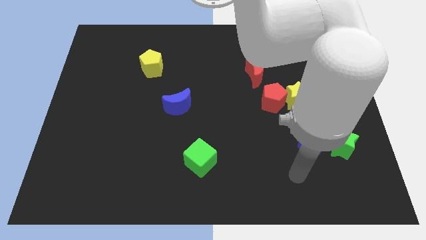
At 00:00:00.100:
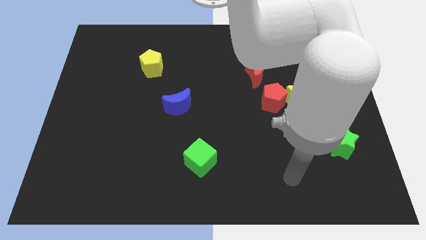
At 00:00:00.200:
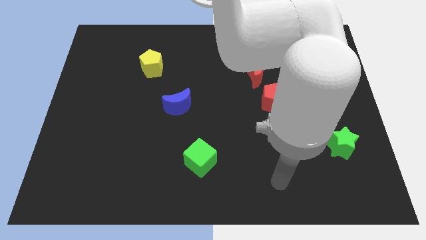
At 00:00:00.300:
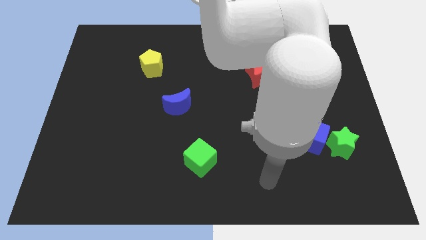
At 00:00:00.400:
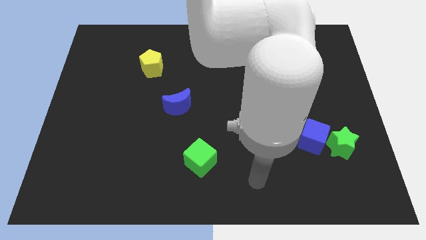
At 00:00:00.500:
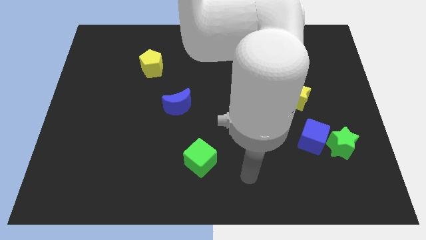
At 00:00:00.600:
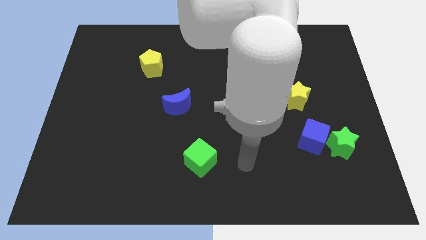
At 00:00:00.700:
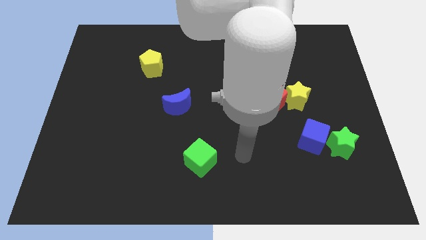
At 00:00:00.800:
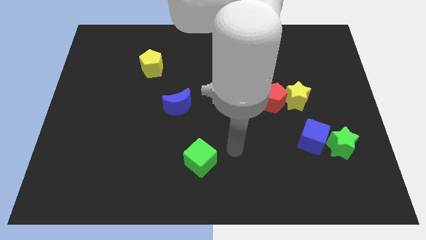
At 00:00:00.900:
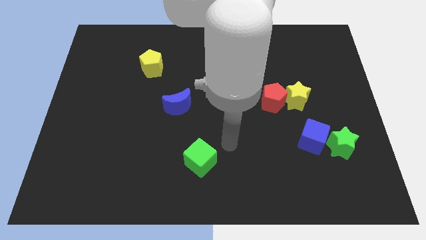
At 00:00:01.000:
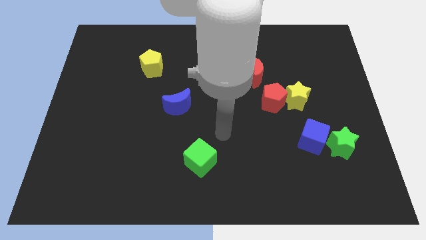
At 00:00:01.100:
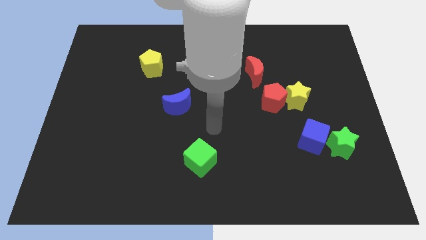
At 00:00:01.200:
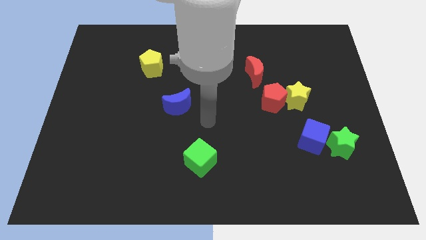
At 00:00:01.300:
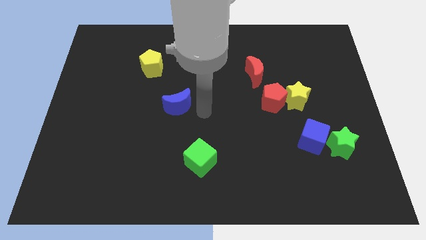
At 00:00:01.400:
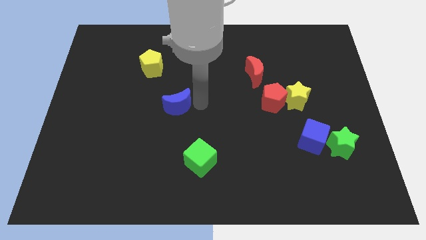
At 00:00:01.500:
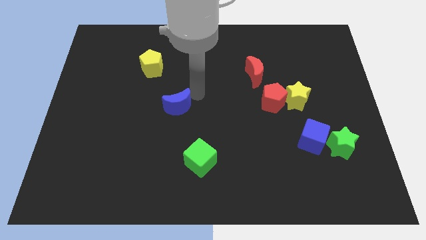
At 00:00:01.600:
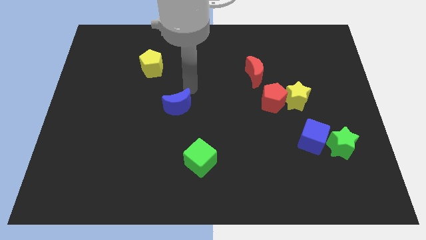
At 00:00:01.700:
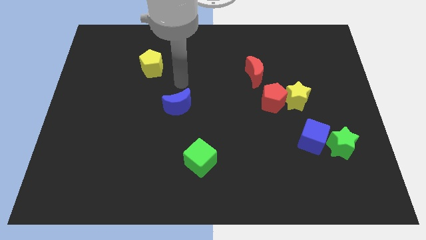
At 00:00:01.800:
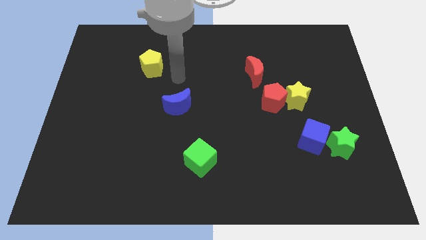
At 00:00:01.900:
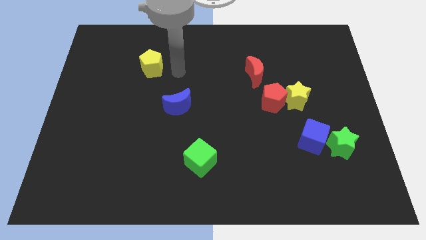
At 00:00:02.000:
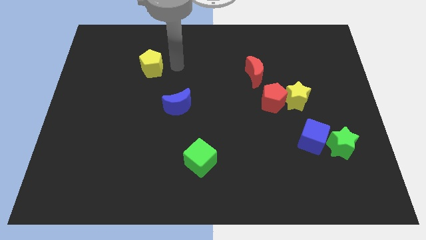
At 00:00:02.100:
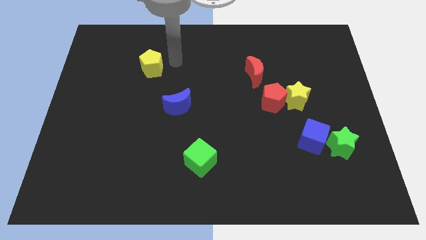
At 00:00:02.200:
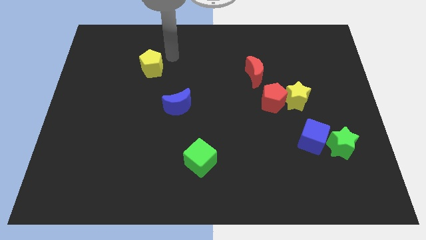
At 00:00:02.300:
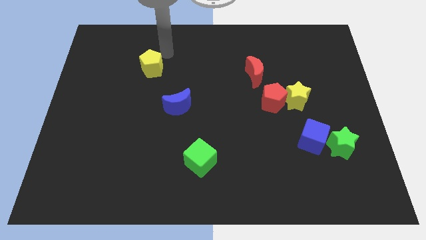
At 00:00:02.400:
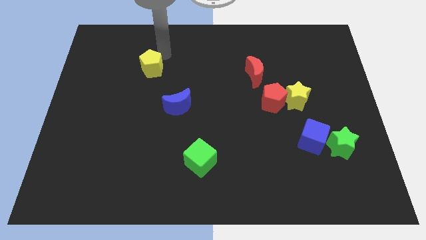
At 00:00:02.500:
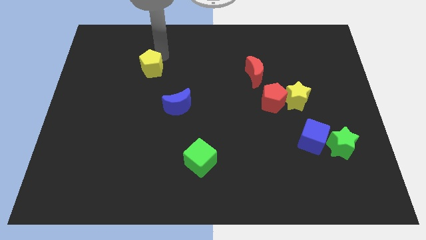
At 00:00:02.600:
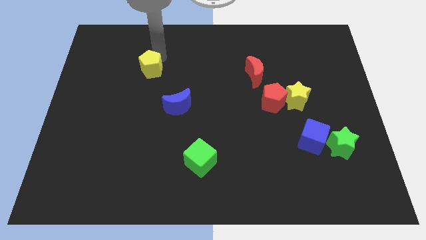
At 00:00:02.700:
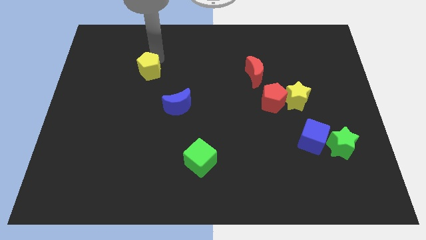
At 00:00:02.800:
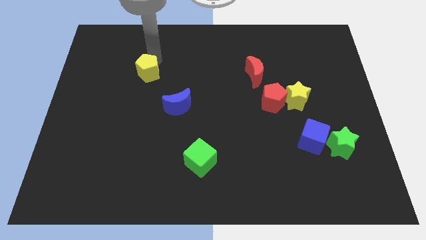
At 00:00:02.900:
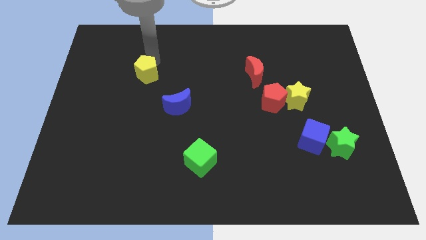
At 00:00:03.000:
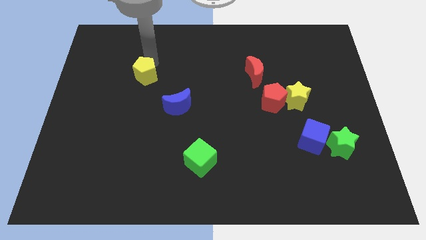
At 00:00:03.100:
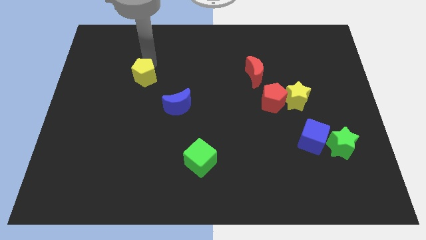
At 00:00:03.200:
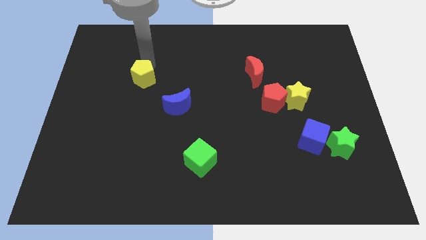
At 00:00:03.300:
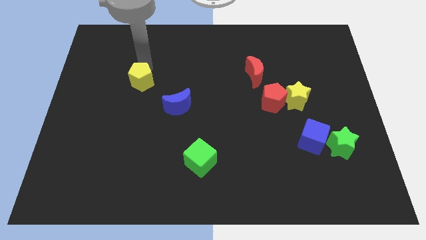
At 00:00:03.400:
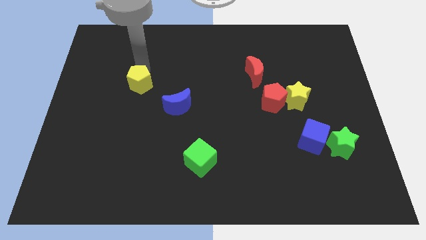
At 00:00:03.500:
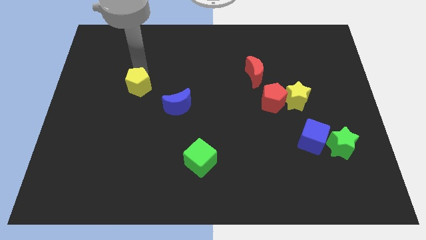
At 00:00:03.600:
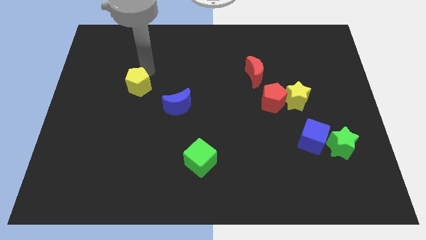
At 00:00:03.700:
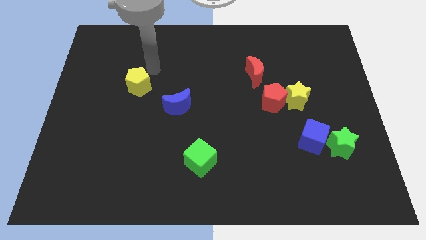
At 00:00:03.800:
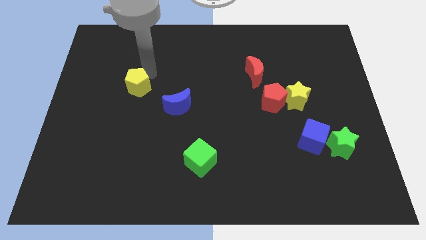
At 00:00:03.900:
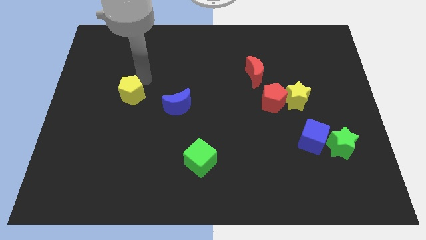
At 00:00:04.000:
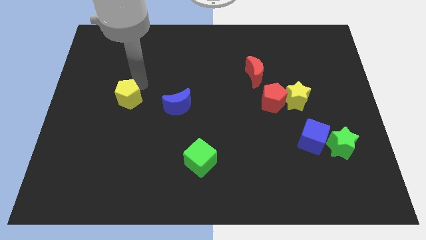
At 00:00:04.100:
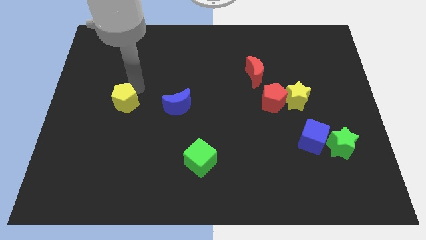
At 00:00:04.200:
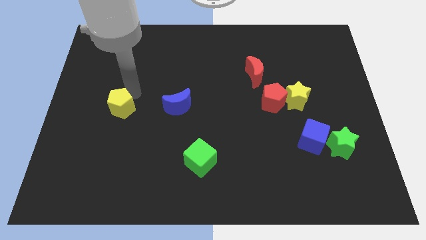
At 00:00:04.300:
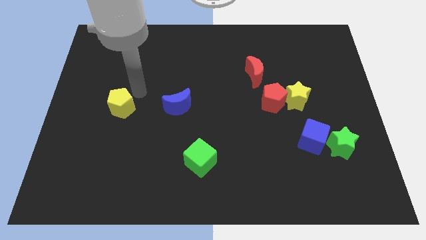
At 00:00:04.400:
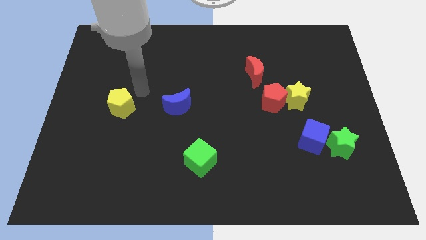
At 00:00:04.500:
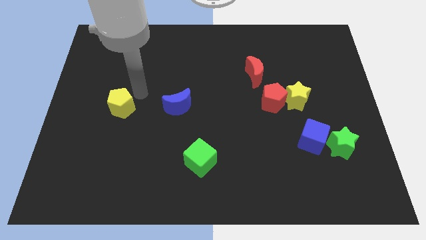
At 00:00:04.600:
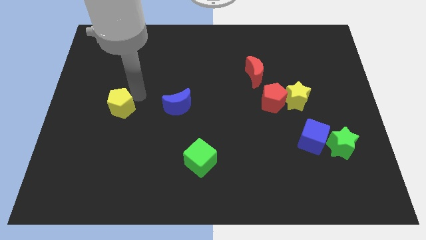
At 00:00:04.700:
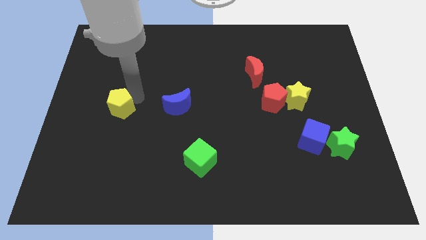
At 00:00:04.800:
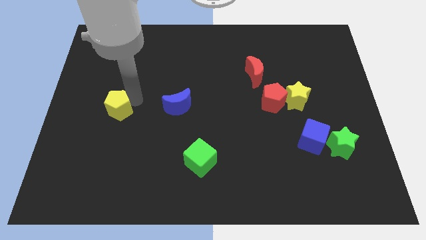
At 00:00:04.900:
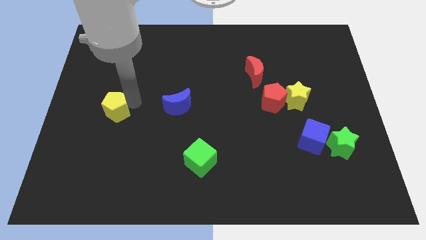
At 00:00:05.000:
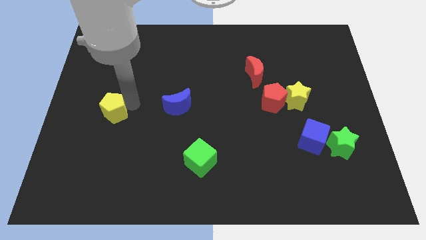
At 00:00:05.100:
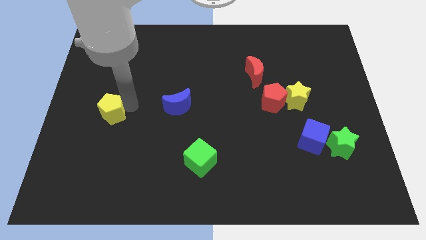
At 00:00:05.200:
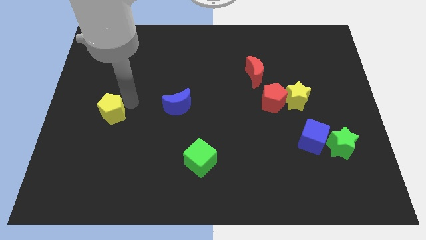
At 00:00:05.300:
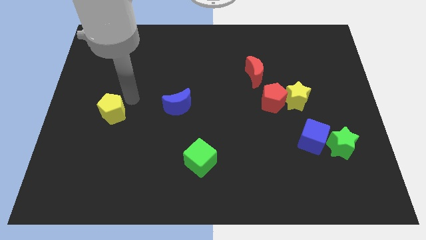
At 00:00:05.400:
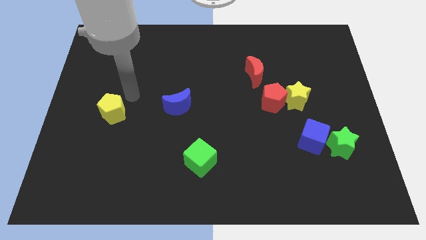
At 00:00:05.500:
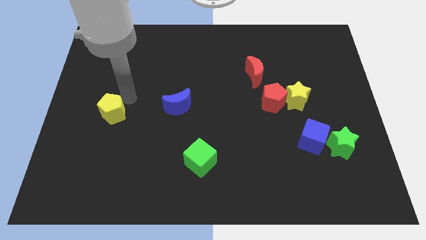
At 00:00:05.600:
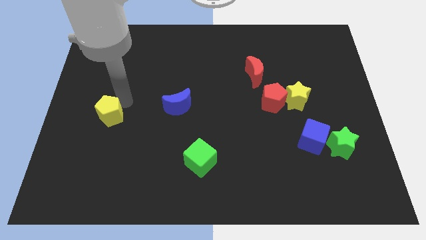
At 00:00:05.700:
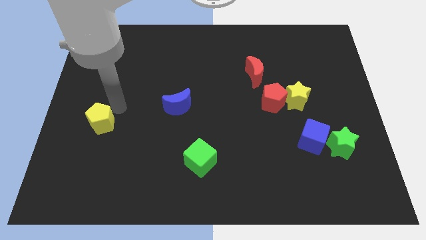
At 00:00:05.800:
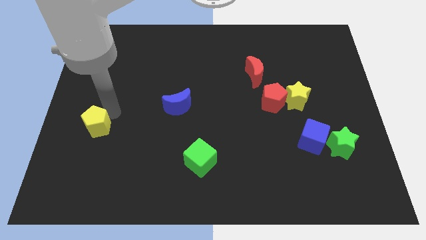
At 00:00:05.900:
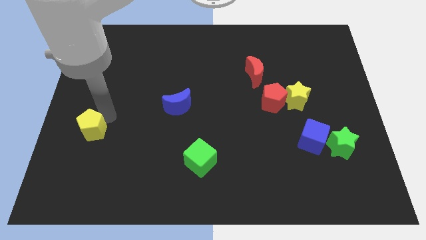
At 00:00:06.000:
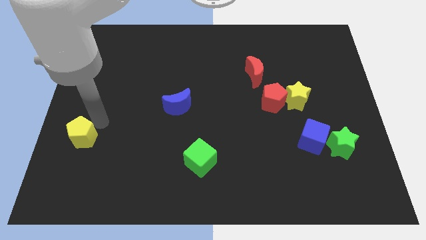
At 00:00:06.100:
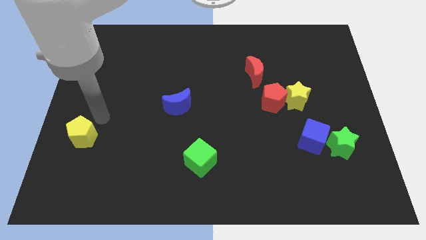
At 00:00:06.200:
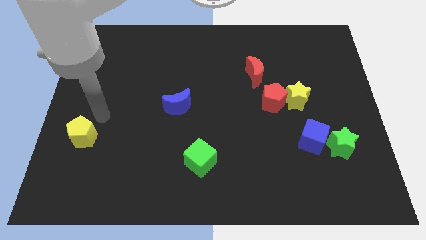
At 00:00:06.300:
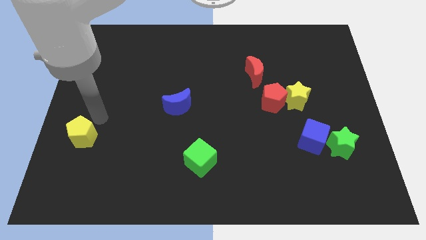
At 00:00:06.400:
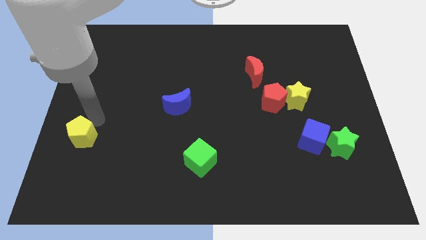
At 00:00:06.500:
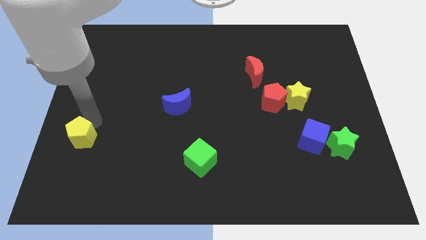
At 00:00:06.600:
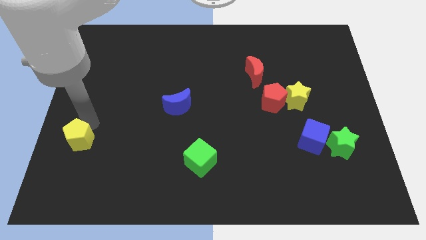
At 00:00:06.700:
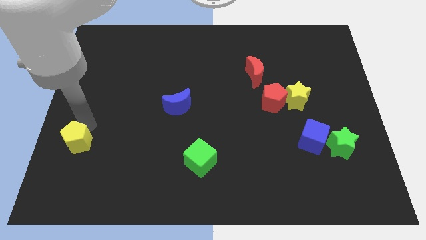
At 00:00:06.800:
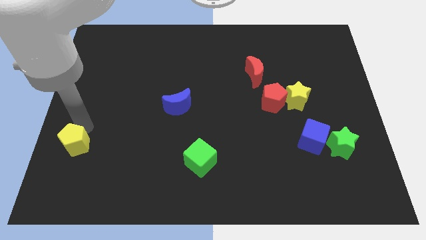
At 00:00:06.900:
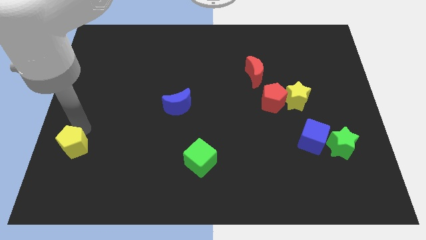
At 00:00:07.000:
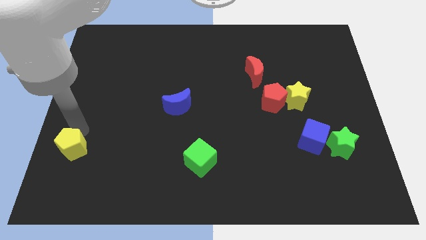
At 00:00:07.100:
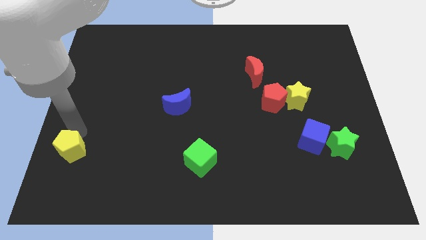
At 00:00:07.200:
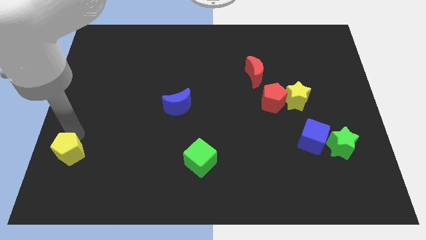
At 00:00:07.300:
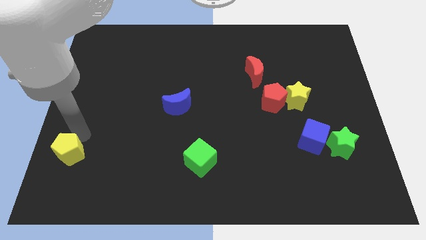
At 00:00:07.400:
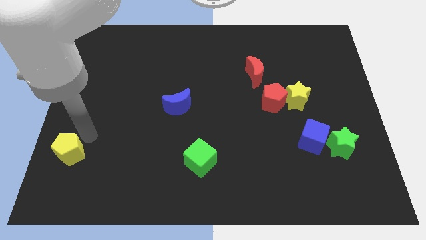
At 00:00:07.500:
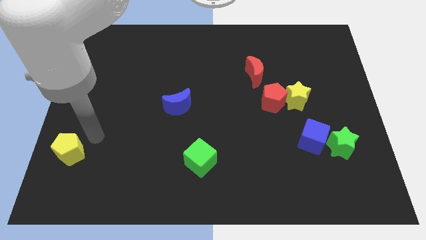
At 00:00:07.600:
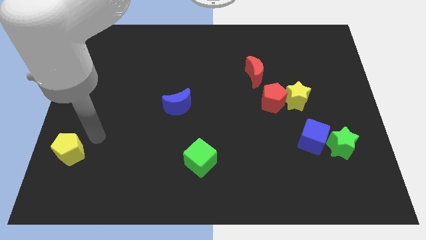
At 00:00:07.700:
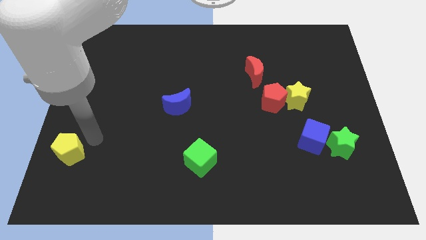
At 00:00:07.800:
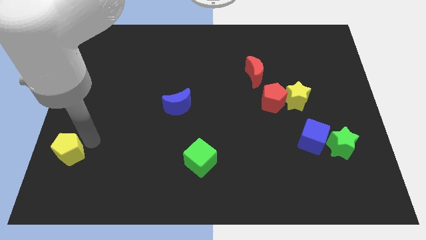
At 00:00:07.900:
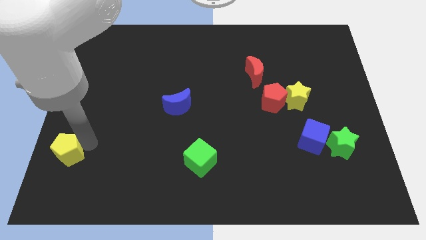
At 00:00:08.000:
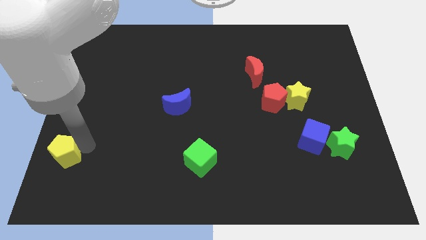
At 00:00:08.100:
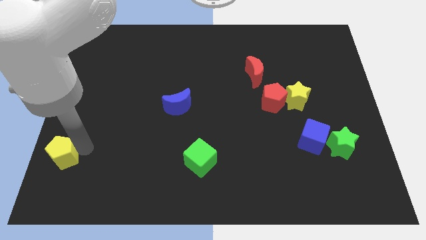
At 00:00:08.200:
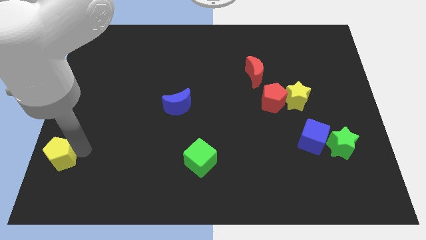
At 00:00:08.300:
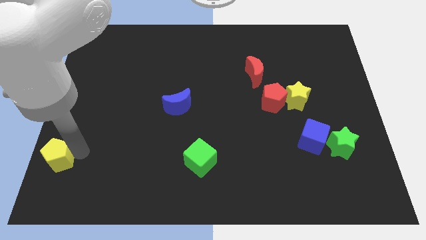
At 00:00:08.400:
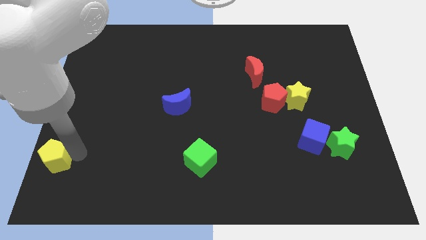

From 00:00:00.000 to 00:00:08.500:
slide the yellow pentagon to the bottom left
